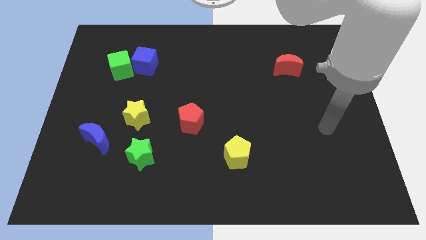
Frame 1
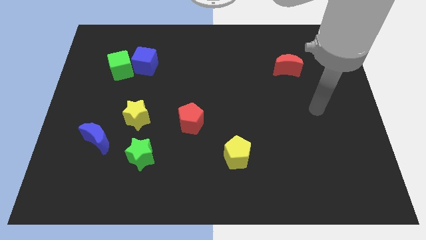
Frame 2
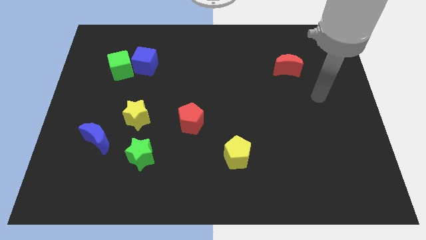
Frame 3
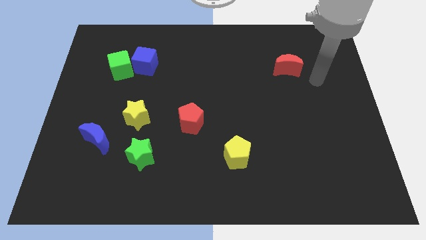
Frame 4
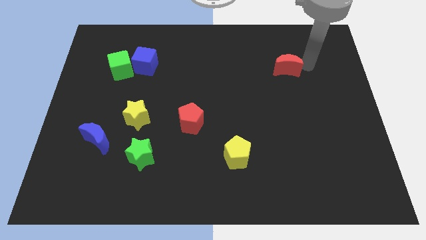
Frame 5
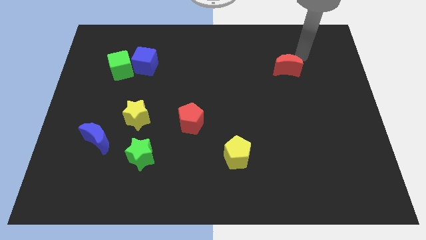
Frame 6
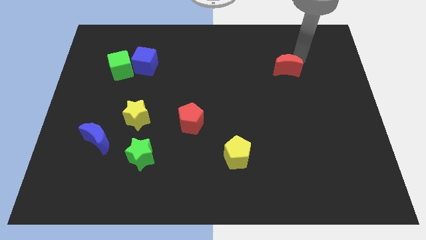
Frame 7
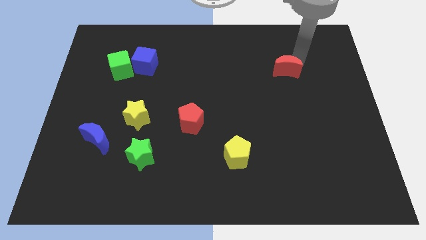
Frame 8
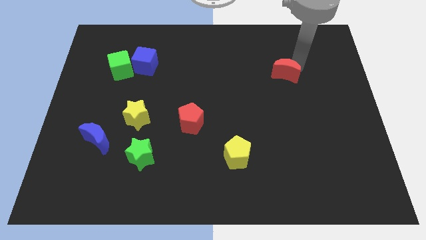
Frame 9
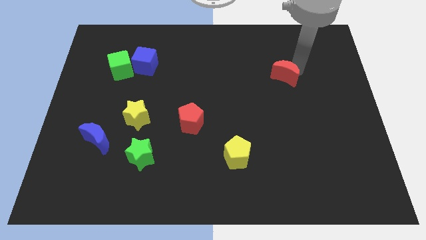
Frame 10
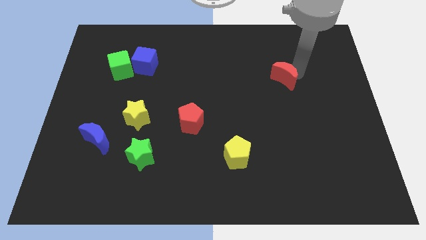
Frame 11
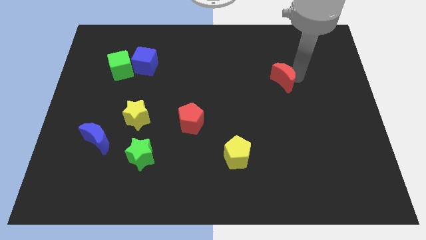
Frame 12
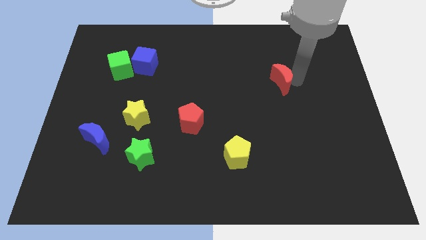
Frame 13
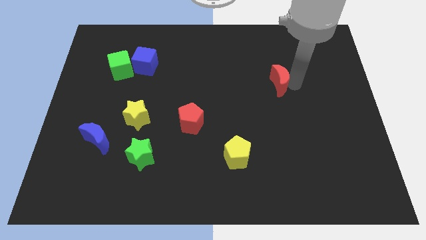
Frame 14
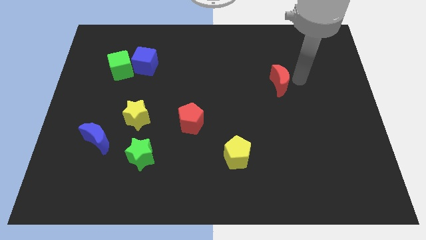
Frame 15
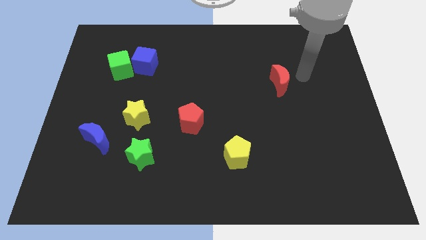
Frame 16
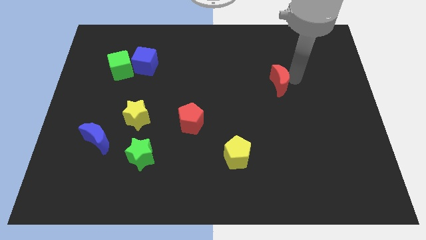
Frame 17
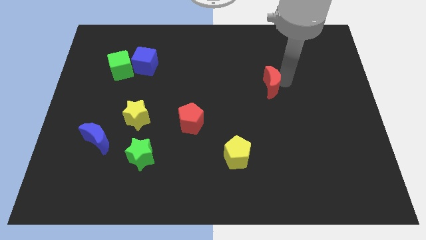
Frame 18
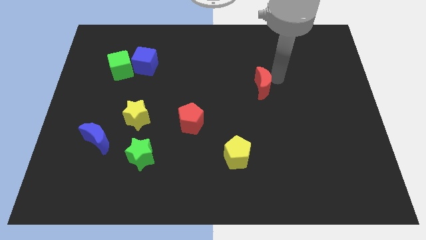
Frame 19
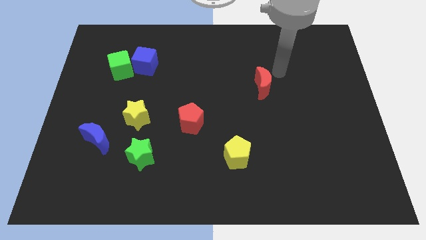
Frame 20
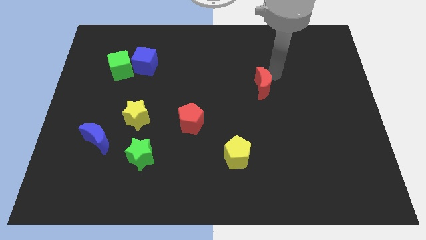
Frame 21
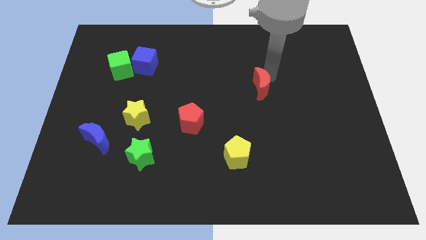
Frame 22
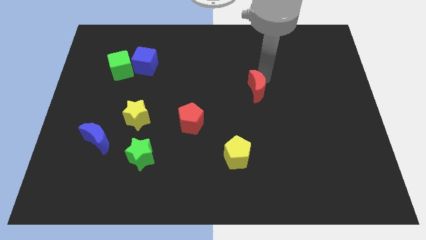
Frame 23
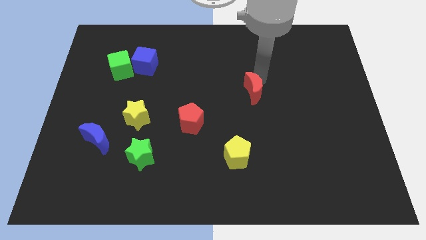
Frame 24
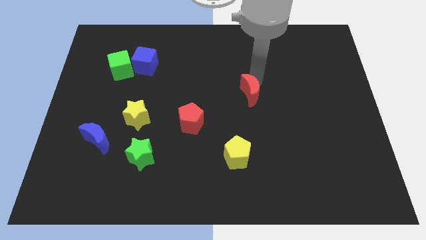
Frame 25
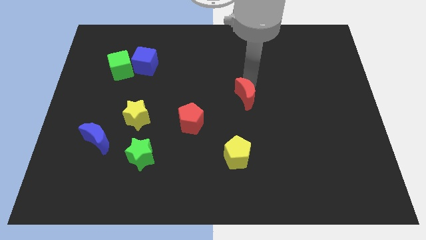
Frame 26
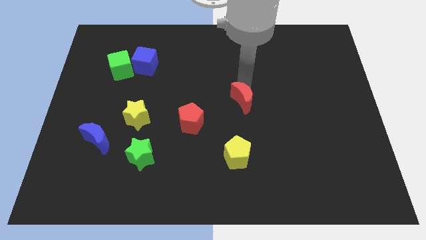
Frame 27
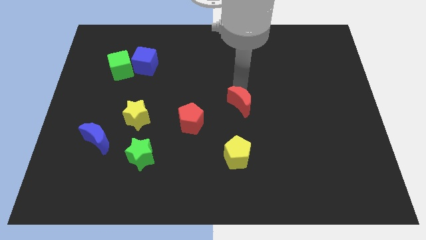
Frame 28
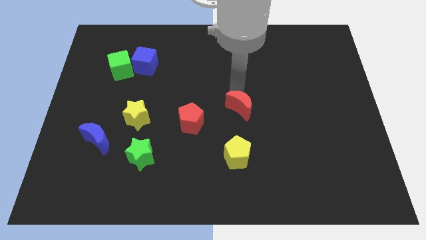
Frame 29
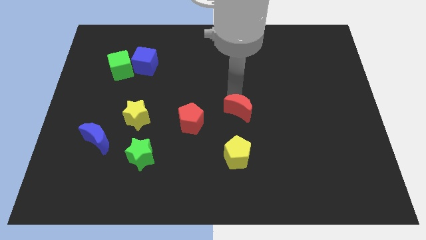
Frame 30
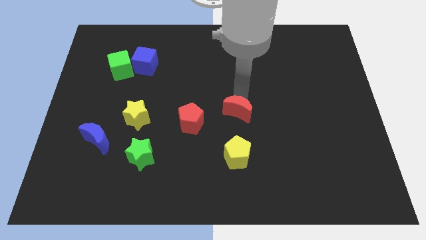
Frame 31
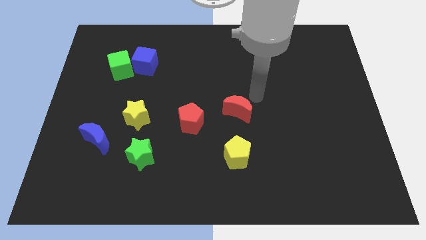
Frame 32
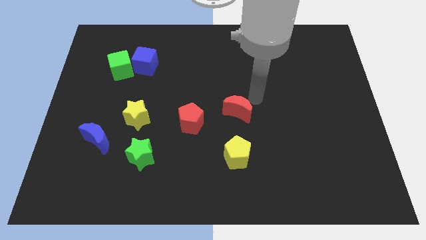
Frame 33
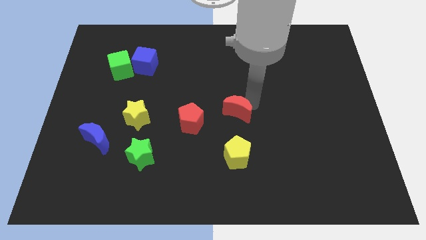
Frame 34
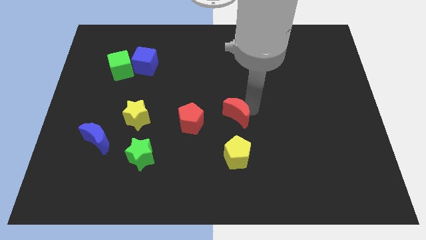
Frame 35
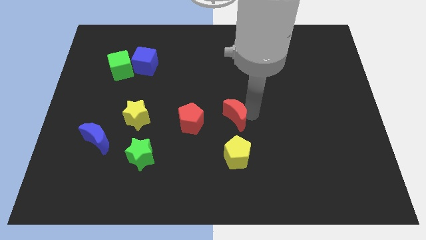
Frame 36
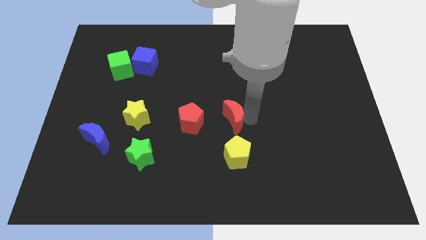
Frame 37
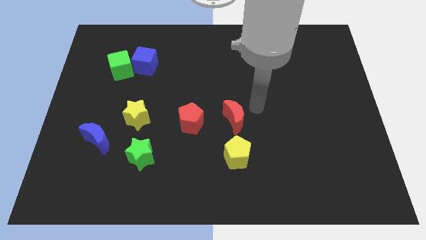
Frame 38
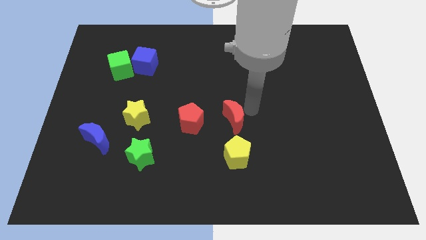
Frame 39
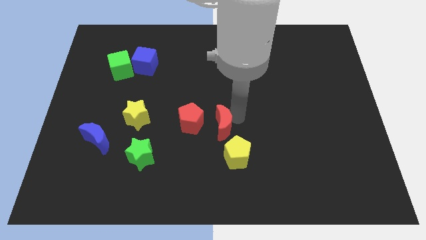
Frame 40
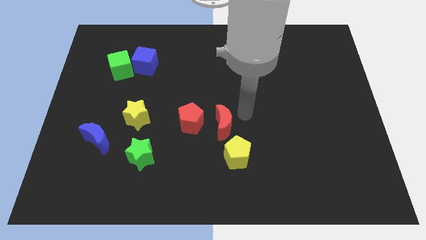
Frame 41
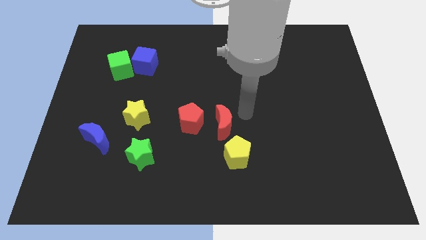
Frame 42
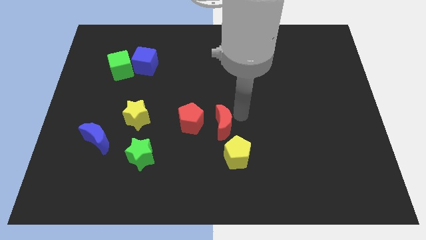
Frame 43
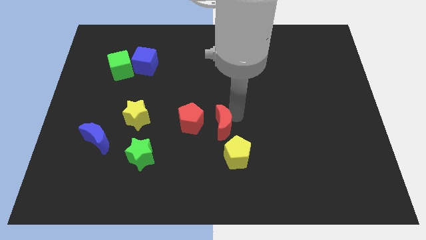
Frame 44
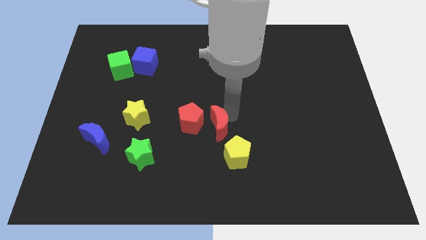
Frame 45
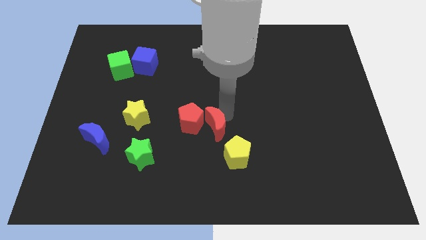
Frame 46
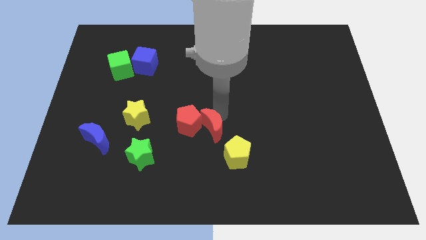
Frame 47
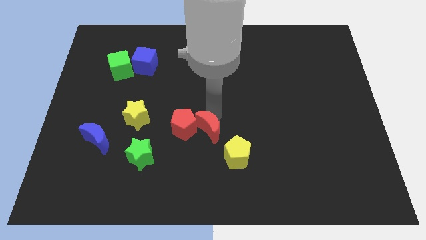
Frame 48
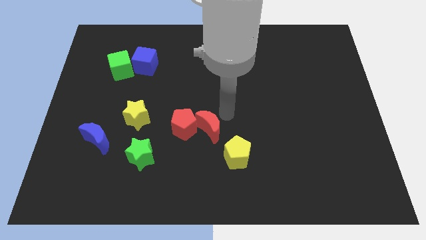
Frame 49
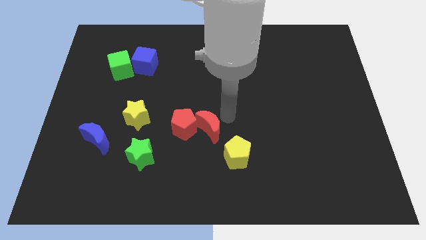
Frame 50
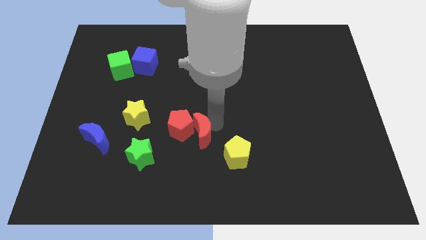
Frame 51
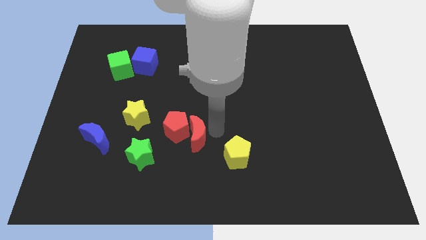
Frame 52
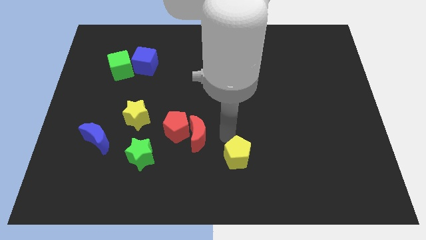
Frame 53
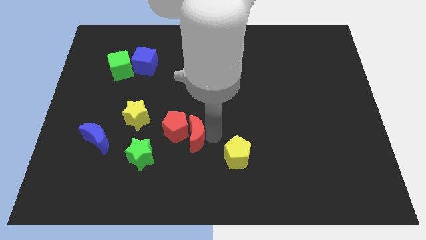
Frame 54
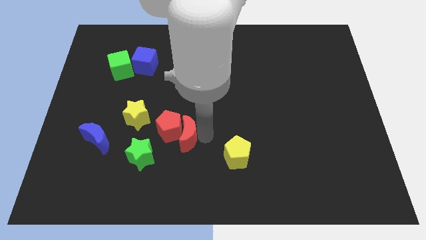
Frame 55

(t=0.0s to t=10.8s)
slide the red moon diagonally up and to the right of the green star

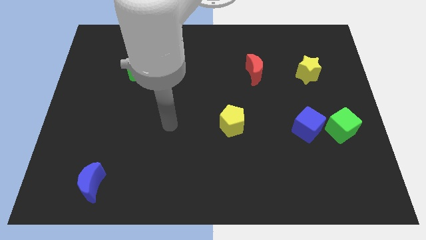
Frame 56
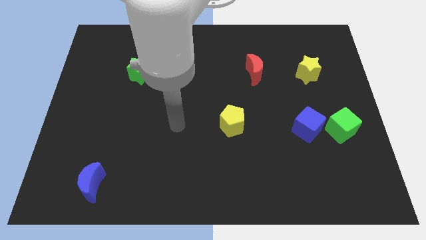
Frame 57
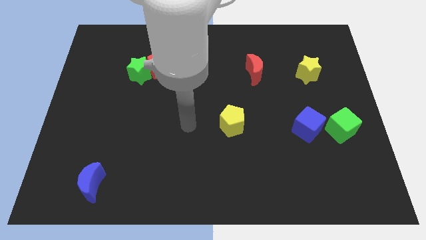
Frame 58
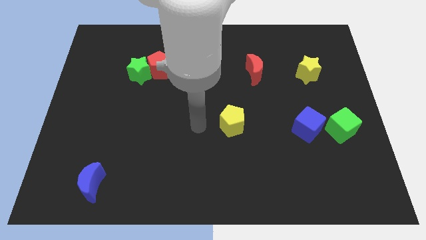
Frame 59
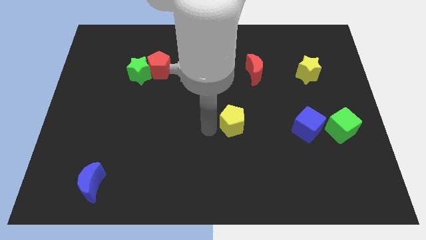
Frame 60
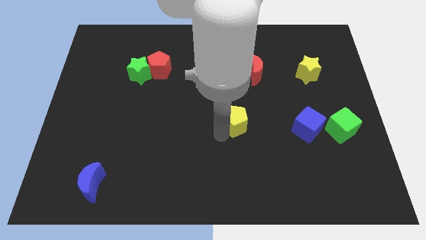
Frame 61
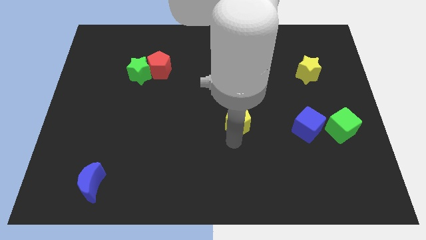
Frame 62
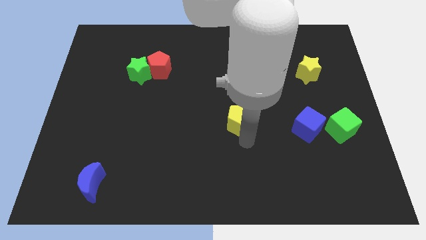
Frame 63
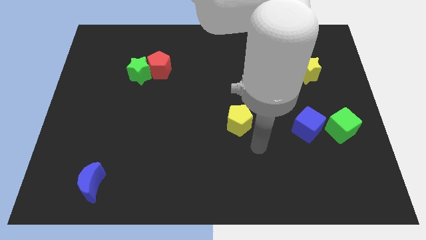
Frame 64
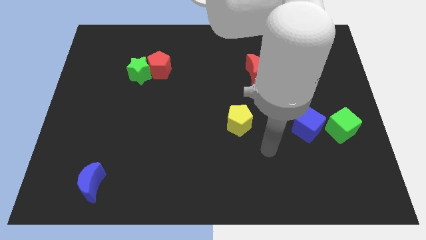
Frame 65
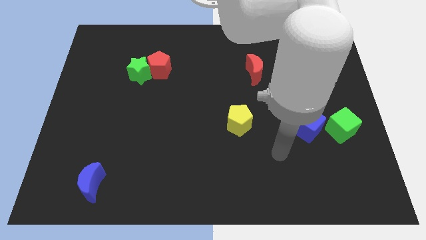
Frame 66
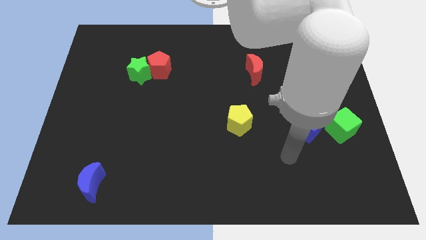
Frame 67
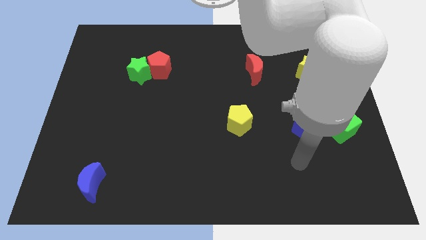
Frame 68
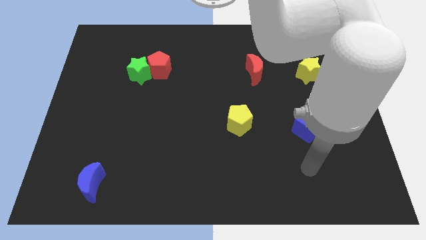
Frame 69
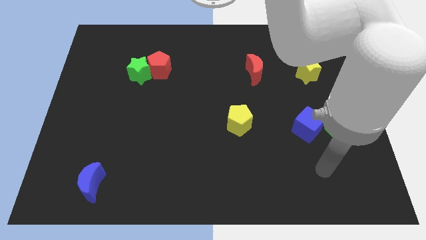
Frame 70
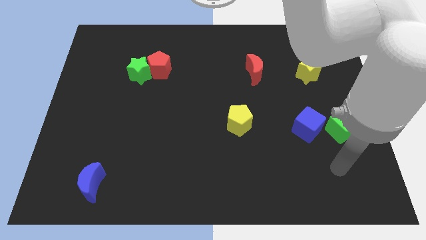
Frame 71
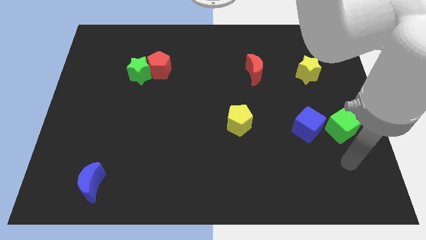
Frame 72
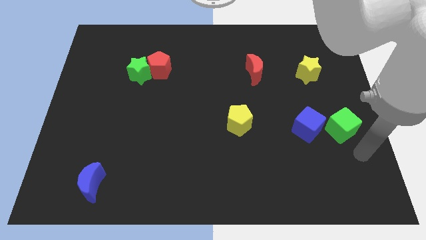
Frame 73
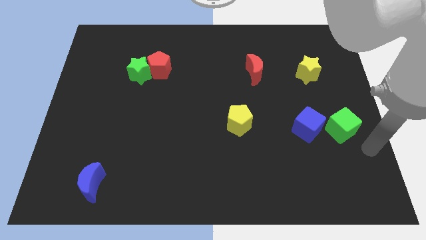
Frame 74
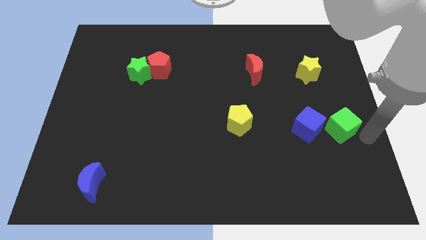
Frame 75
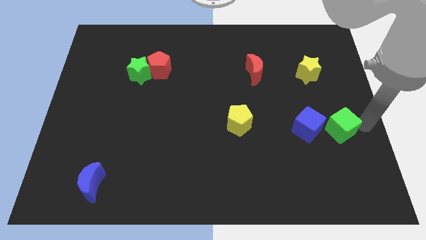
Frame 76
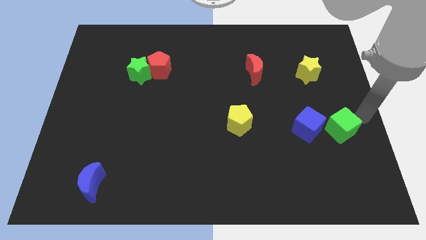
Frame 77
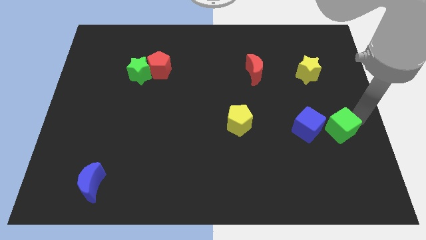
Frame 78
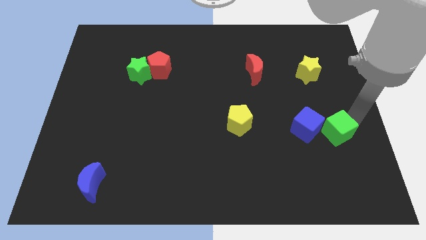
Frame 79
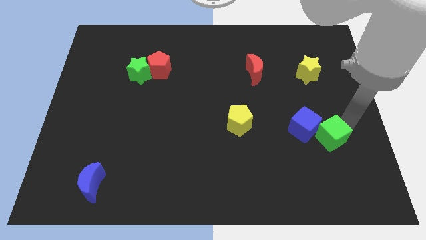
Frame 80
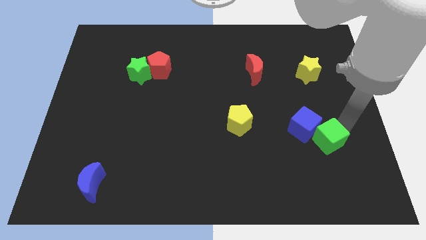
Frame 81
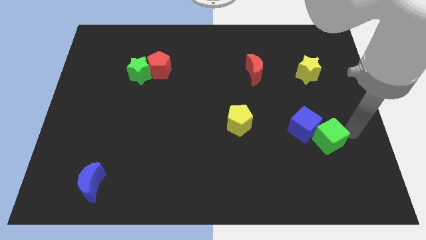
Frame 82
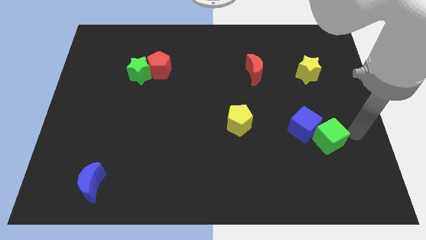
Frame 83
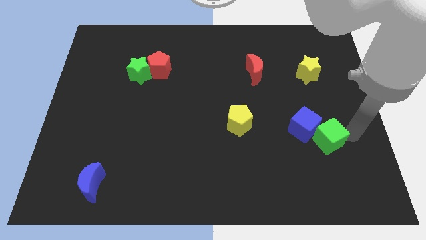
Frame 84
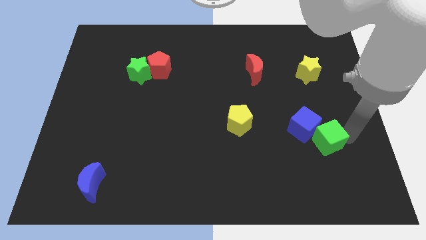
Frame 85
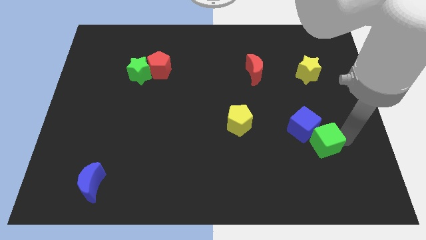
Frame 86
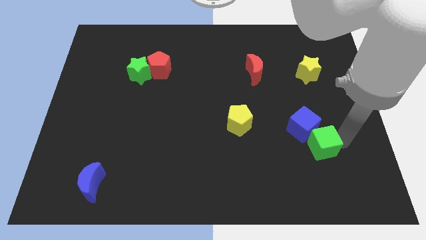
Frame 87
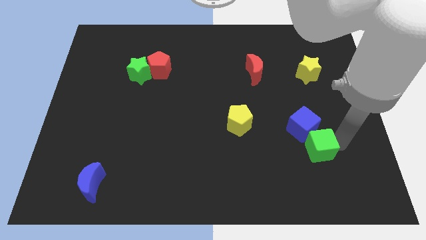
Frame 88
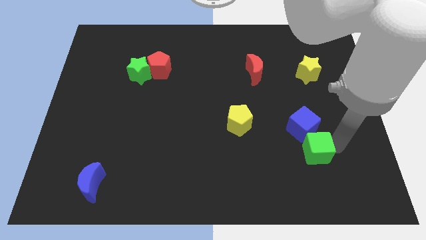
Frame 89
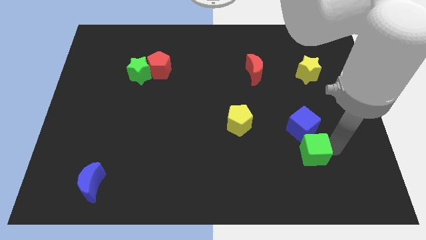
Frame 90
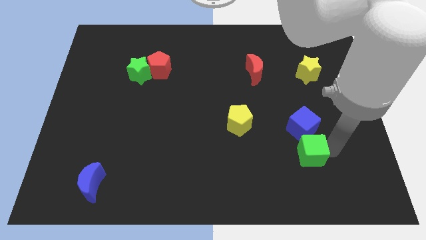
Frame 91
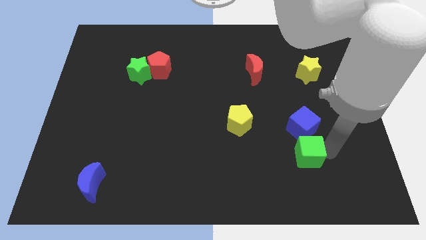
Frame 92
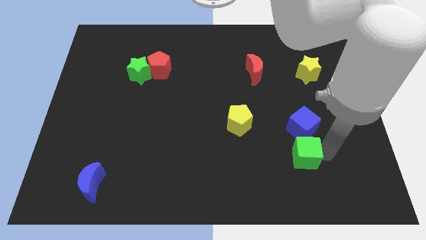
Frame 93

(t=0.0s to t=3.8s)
slide the green cube to the bottom left side of the blue cube
